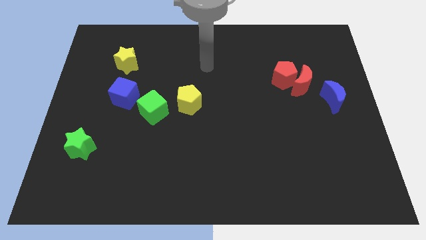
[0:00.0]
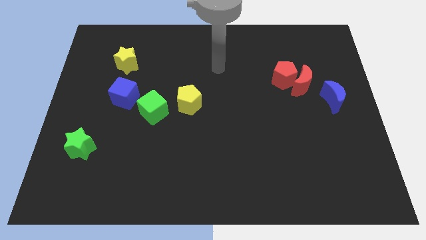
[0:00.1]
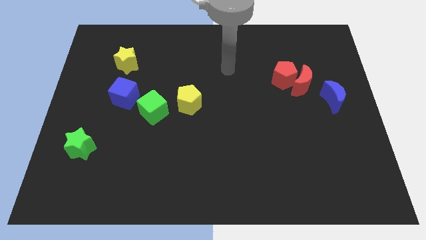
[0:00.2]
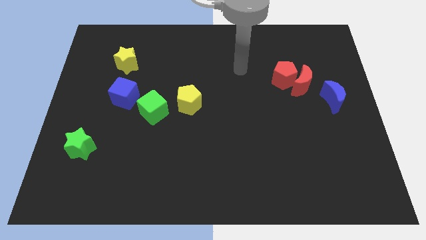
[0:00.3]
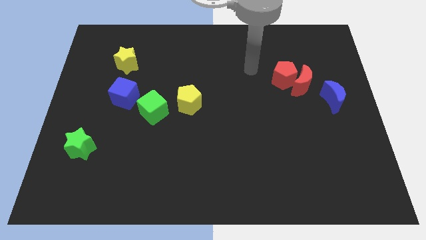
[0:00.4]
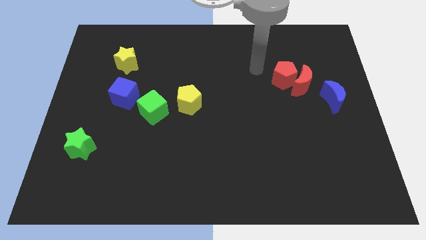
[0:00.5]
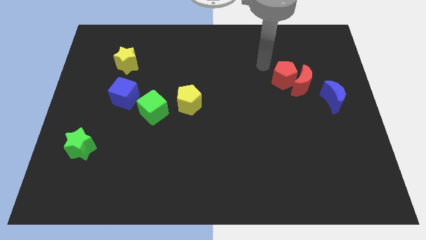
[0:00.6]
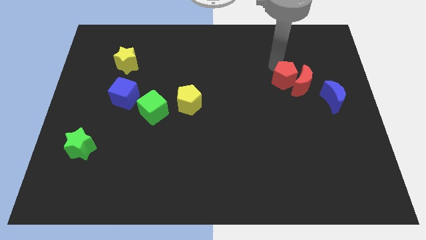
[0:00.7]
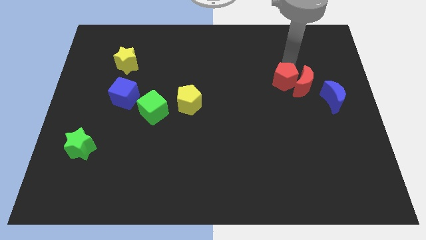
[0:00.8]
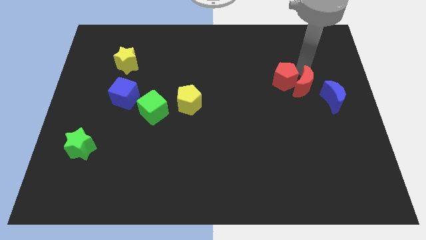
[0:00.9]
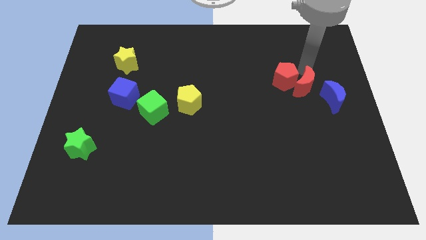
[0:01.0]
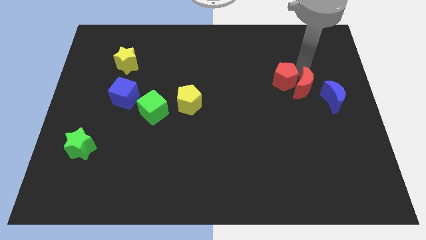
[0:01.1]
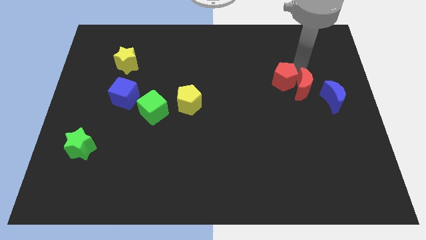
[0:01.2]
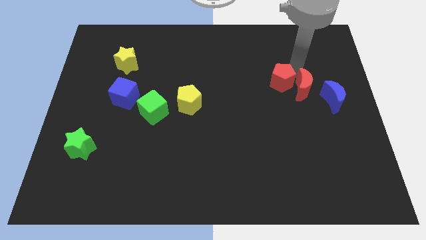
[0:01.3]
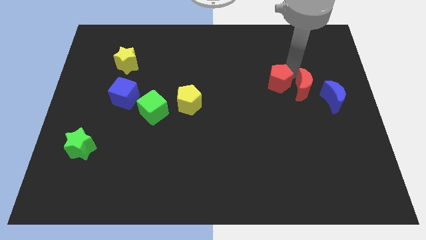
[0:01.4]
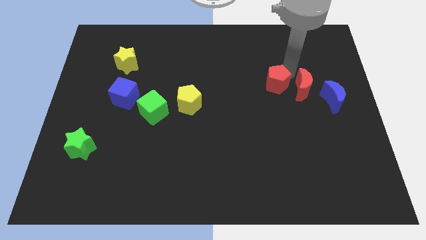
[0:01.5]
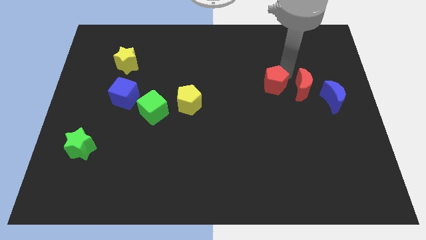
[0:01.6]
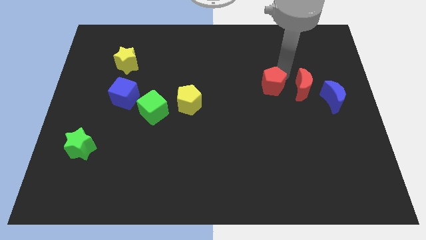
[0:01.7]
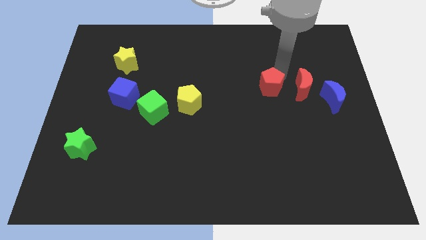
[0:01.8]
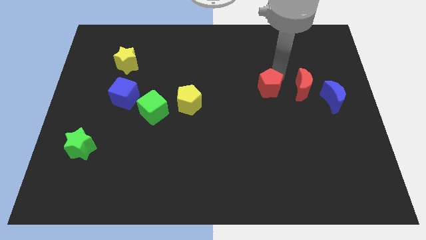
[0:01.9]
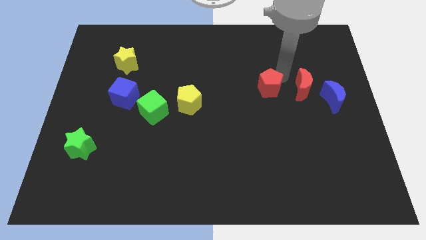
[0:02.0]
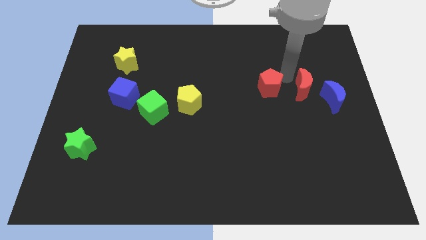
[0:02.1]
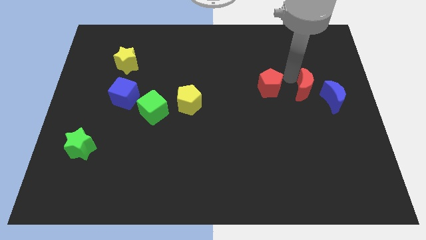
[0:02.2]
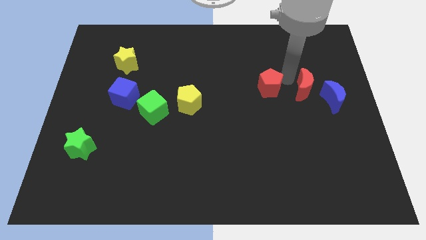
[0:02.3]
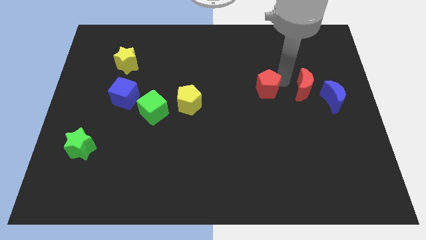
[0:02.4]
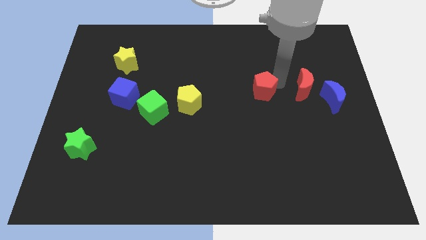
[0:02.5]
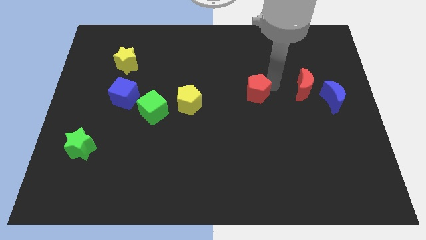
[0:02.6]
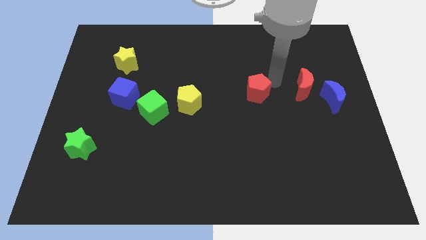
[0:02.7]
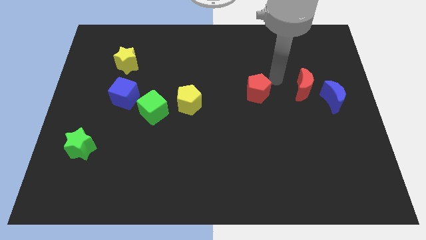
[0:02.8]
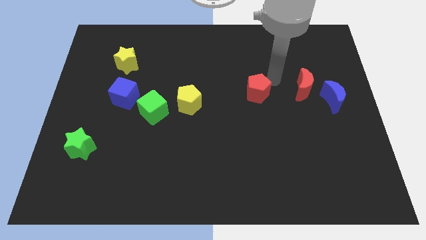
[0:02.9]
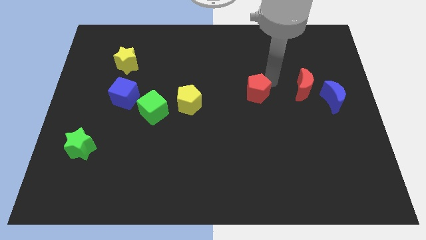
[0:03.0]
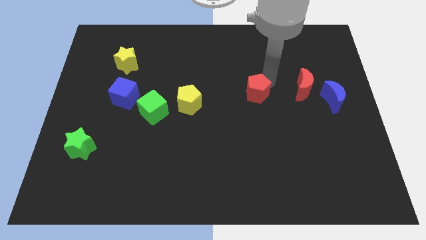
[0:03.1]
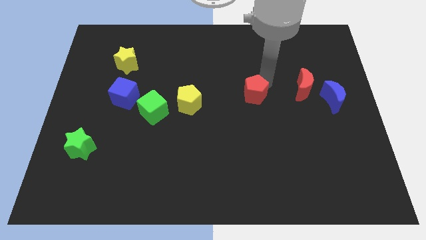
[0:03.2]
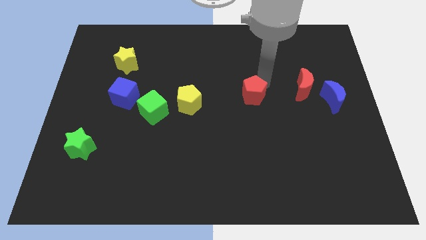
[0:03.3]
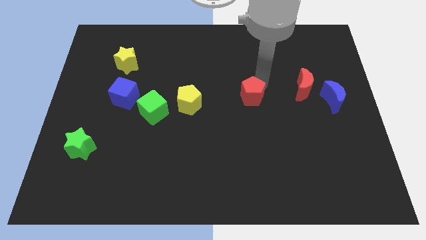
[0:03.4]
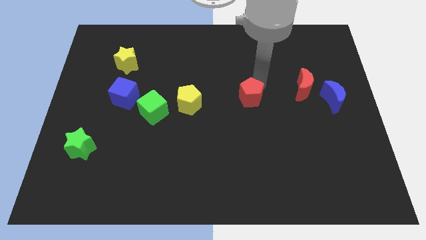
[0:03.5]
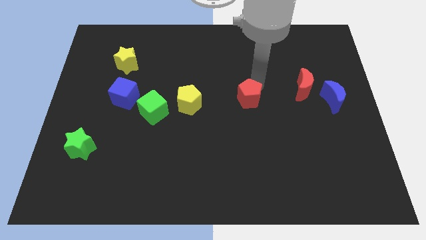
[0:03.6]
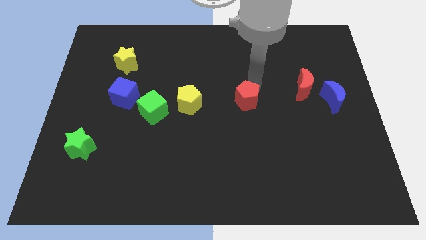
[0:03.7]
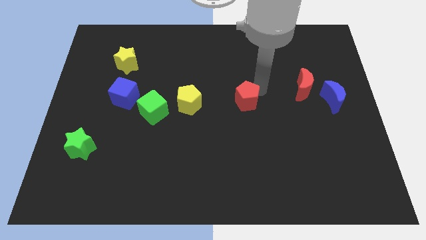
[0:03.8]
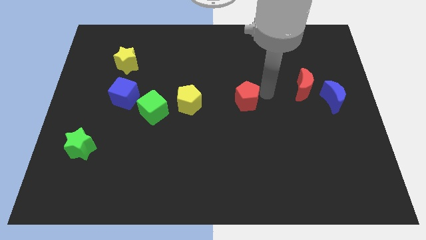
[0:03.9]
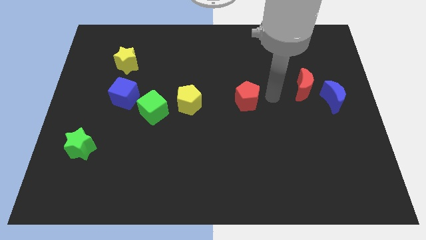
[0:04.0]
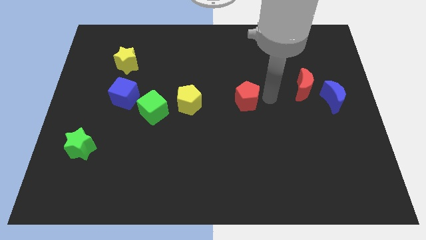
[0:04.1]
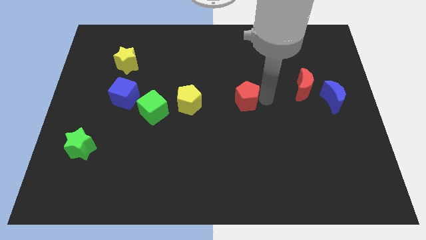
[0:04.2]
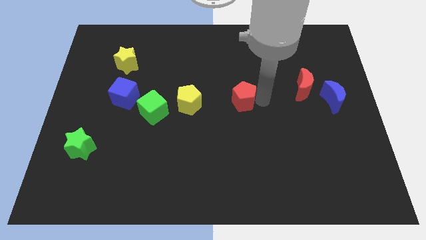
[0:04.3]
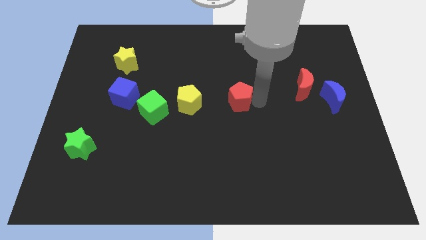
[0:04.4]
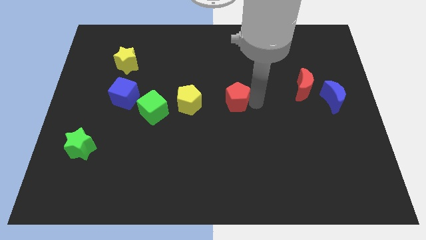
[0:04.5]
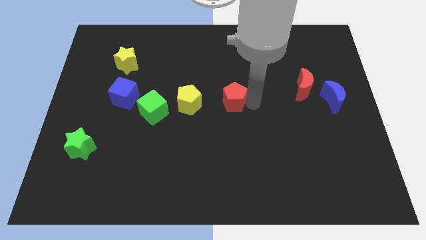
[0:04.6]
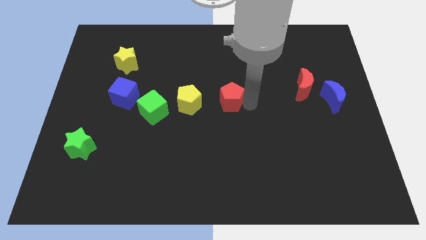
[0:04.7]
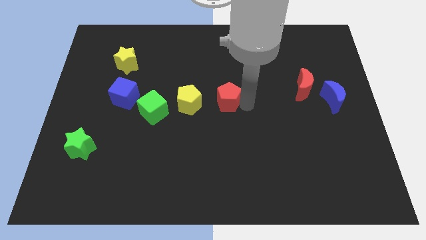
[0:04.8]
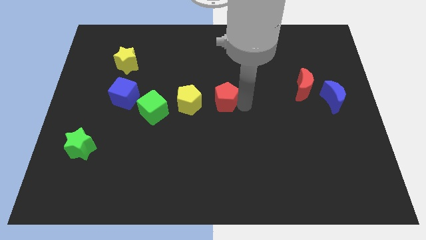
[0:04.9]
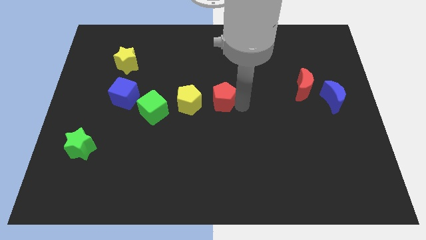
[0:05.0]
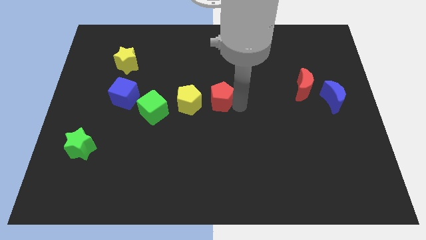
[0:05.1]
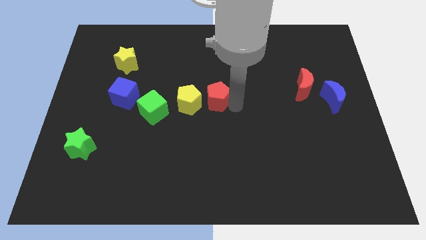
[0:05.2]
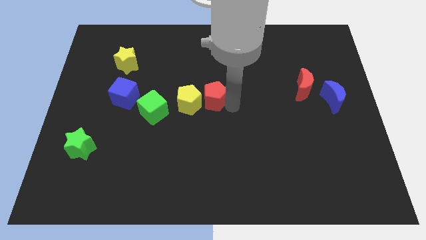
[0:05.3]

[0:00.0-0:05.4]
slide the red pentagon next to the yellow pentagon

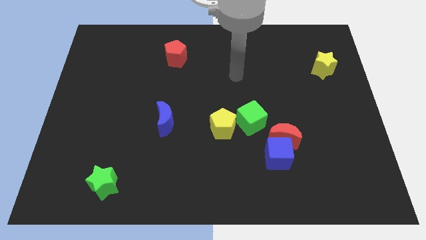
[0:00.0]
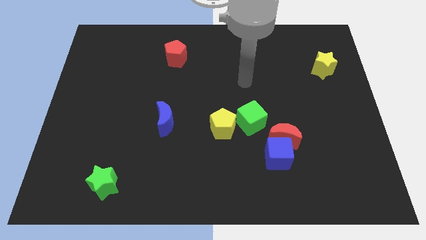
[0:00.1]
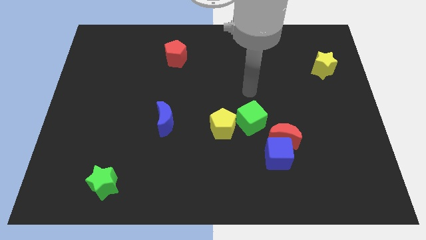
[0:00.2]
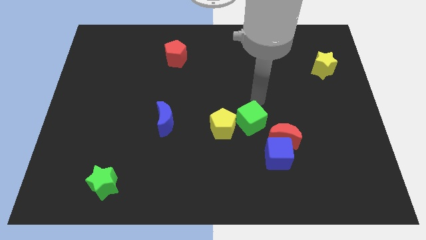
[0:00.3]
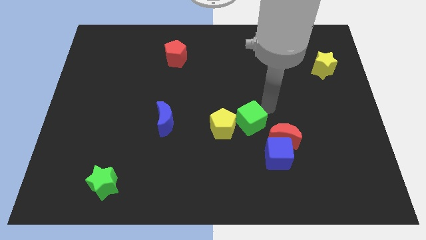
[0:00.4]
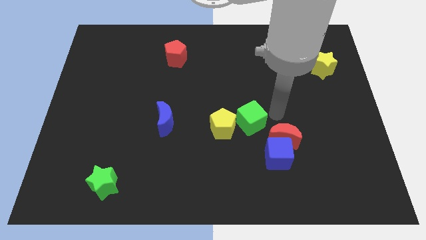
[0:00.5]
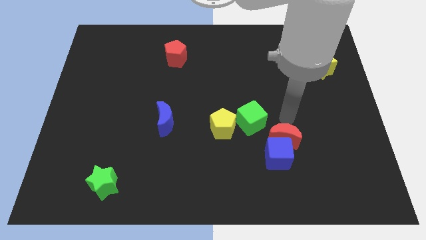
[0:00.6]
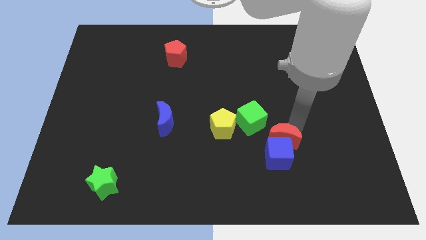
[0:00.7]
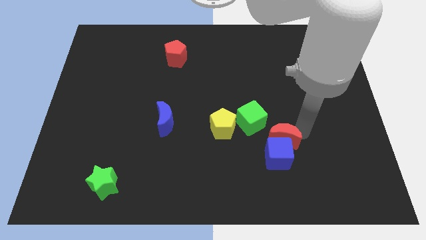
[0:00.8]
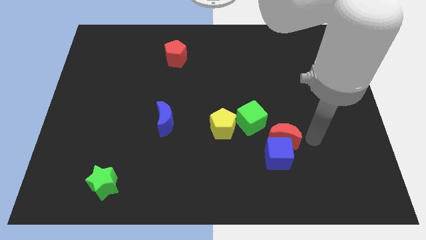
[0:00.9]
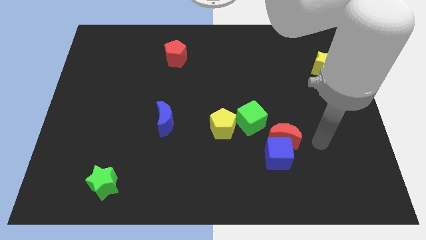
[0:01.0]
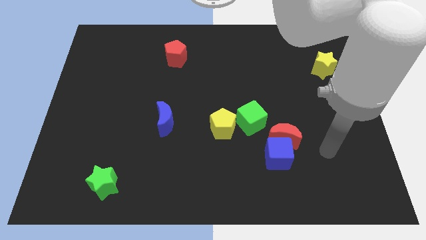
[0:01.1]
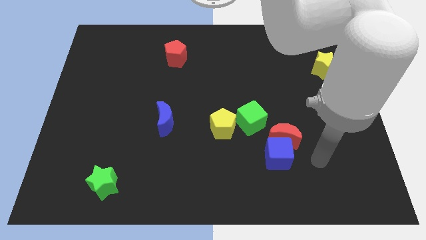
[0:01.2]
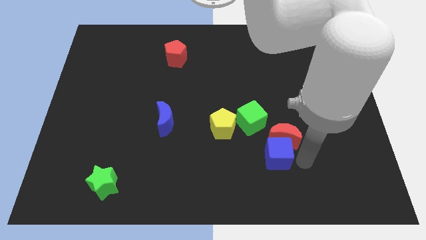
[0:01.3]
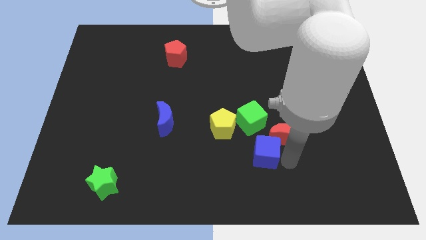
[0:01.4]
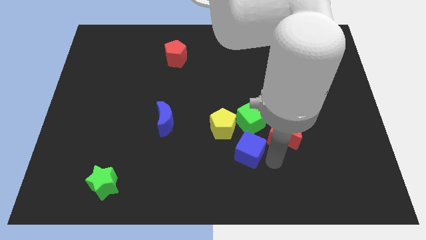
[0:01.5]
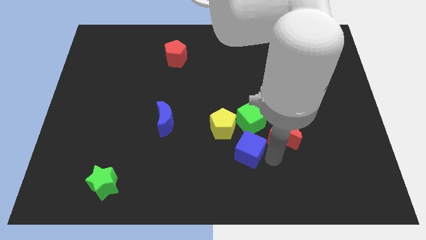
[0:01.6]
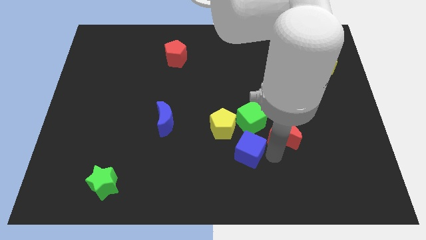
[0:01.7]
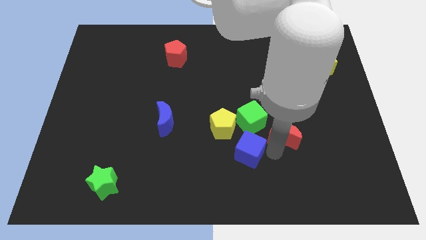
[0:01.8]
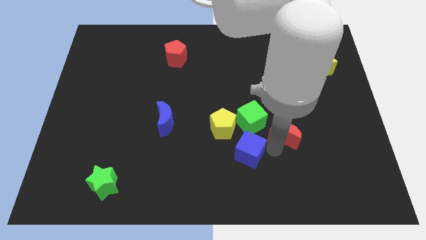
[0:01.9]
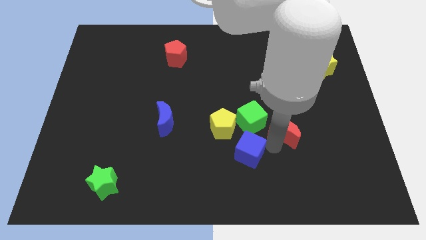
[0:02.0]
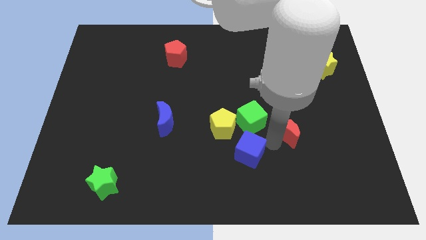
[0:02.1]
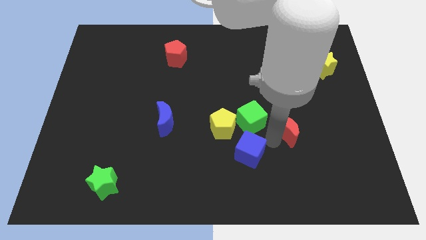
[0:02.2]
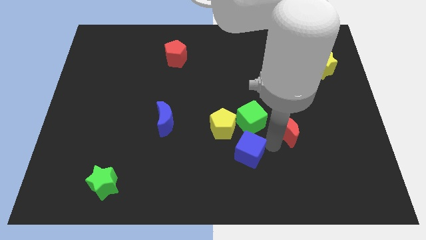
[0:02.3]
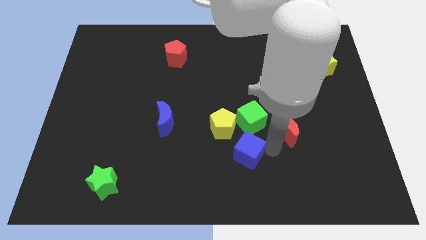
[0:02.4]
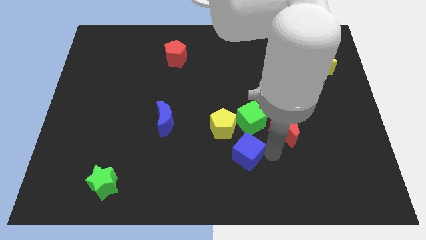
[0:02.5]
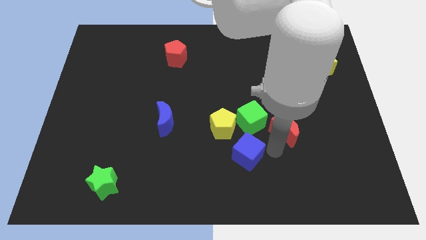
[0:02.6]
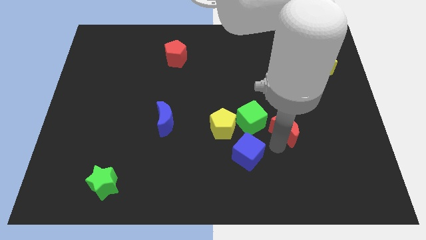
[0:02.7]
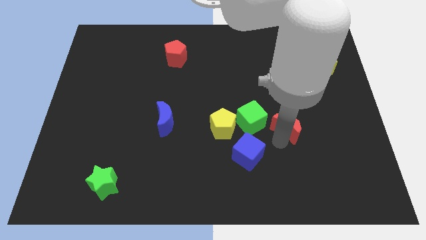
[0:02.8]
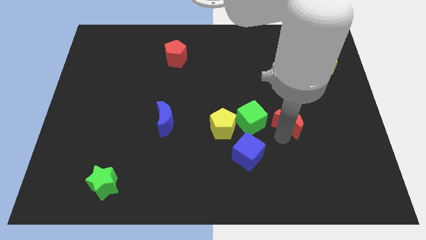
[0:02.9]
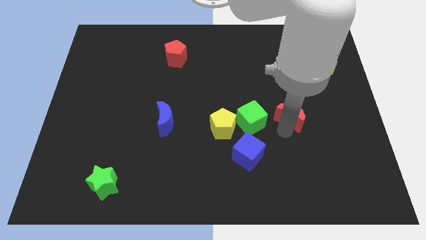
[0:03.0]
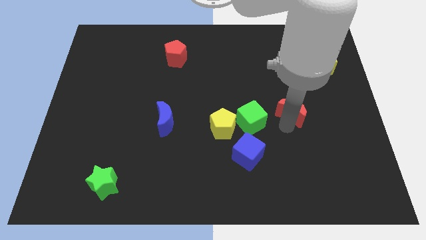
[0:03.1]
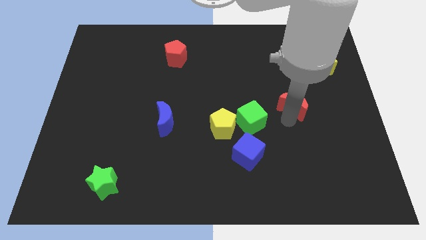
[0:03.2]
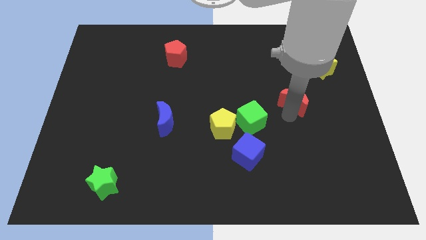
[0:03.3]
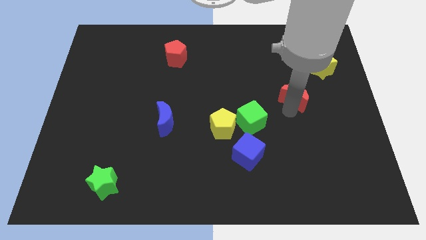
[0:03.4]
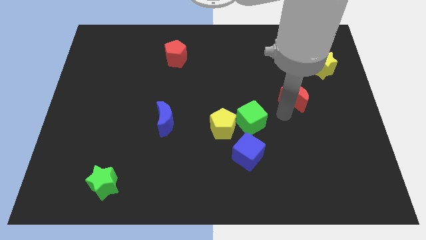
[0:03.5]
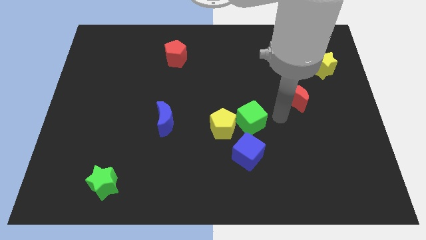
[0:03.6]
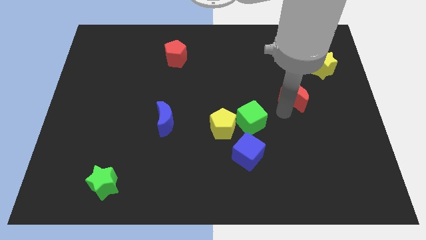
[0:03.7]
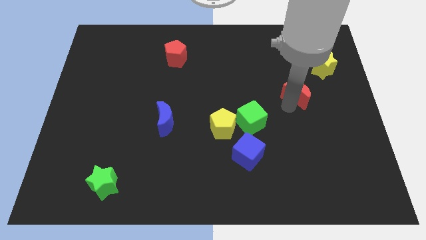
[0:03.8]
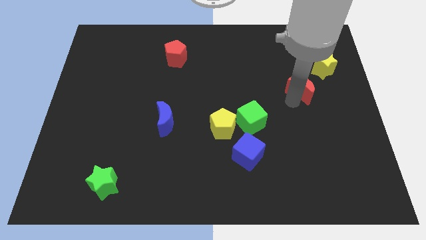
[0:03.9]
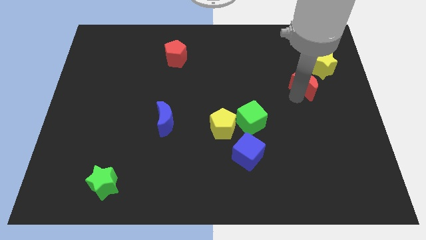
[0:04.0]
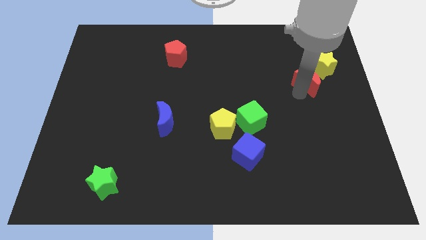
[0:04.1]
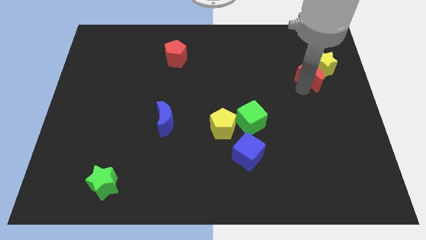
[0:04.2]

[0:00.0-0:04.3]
slide the red moon close to the yellow star
